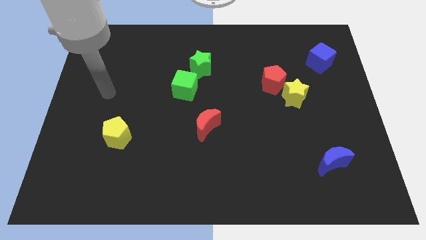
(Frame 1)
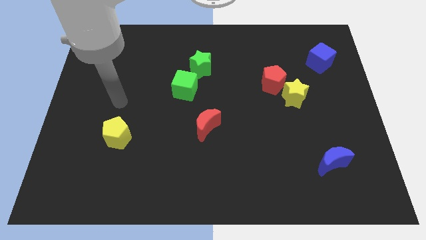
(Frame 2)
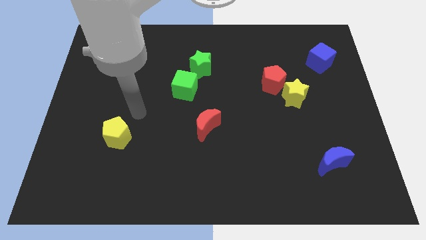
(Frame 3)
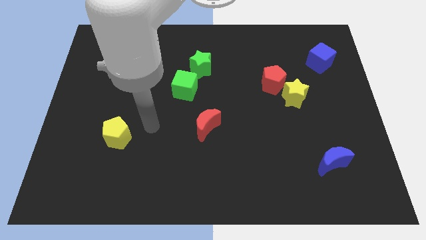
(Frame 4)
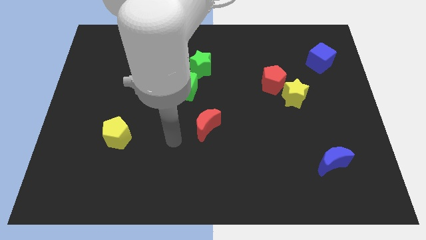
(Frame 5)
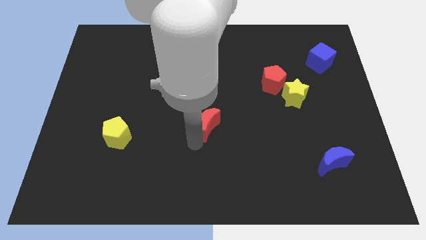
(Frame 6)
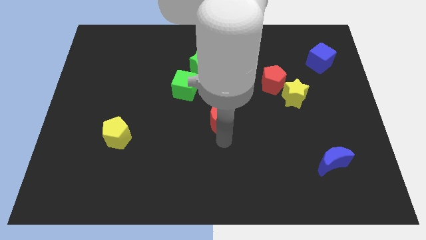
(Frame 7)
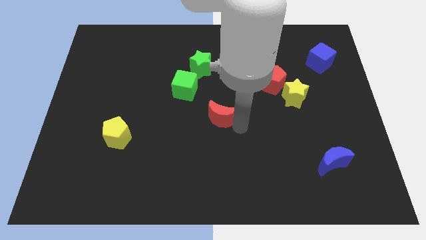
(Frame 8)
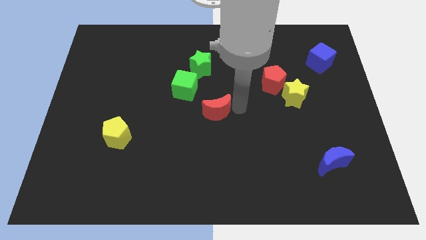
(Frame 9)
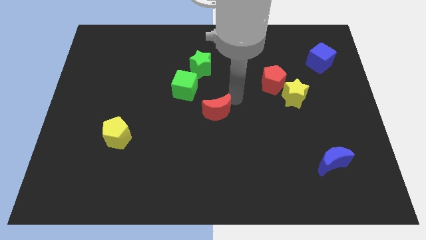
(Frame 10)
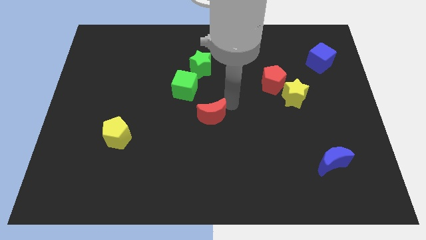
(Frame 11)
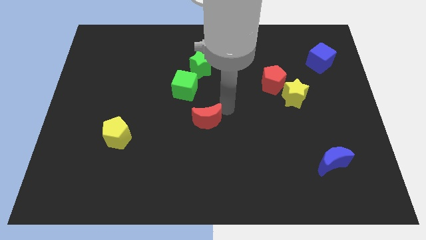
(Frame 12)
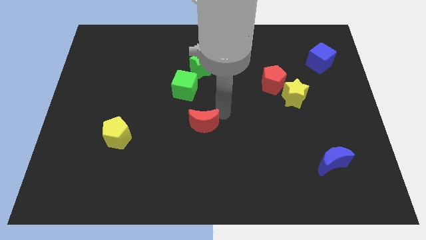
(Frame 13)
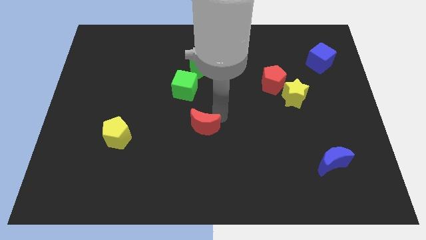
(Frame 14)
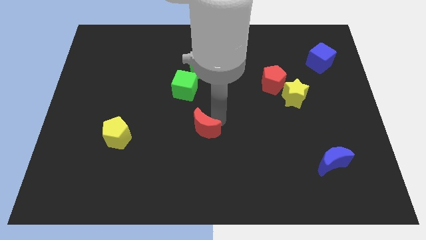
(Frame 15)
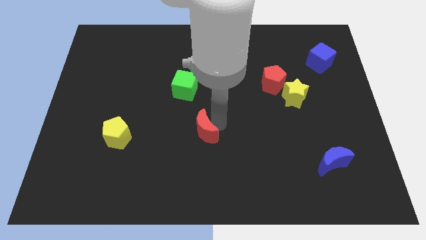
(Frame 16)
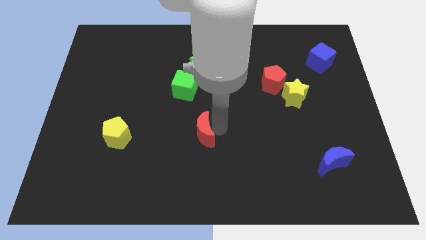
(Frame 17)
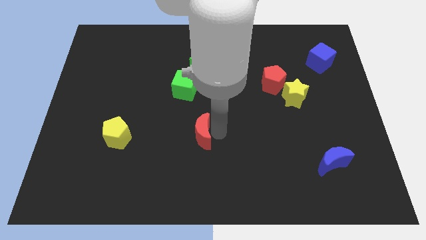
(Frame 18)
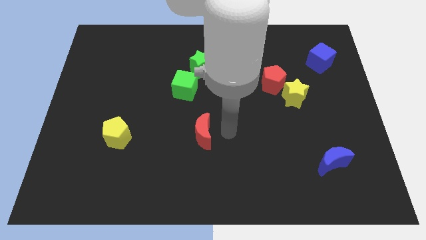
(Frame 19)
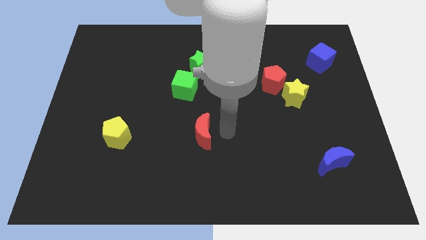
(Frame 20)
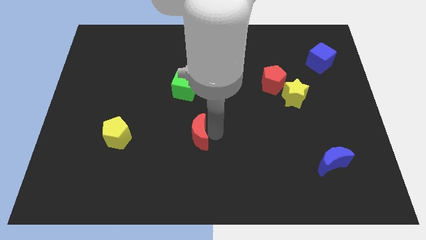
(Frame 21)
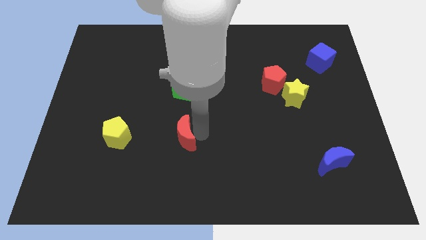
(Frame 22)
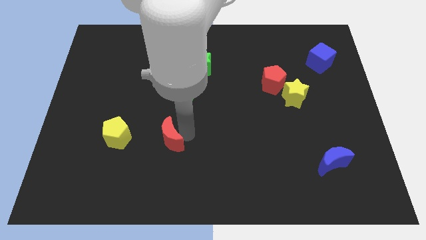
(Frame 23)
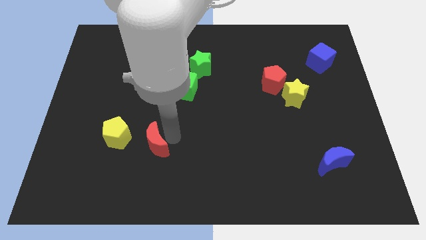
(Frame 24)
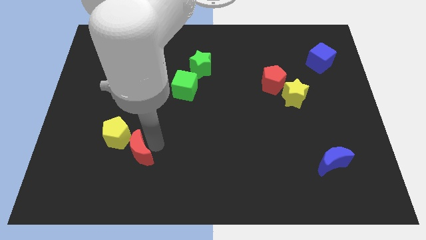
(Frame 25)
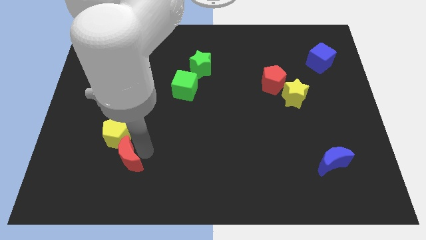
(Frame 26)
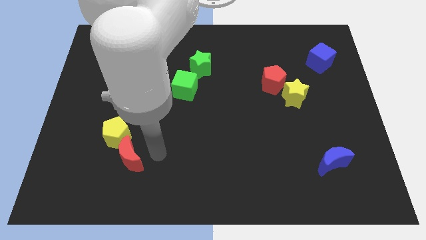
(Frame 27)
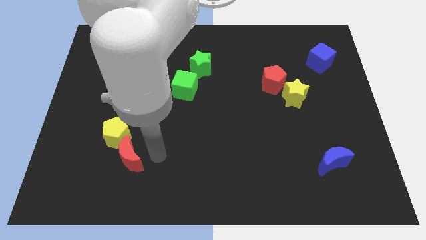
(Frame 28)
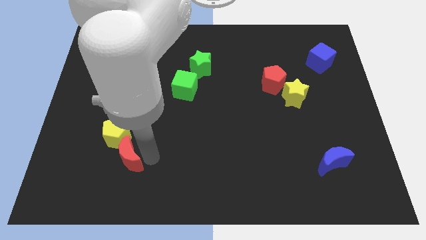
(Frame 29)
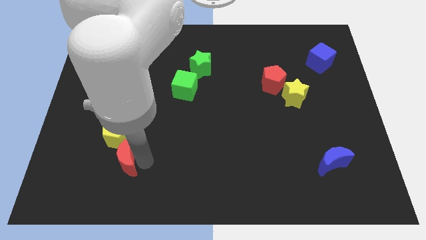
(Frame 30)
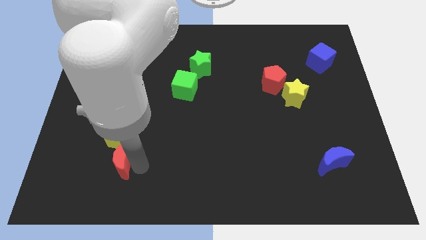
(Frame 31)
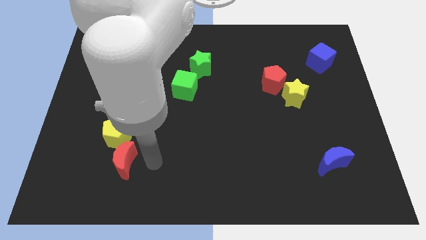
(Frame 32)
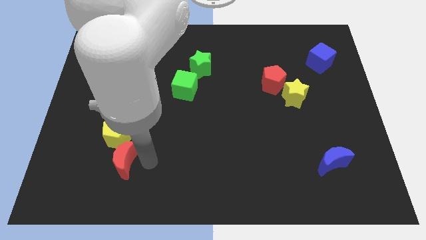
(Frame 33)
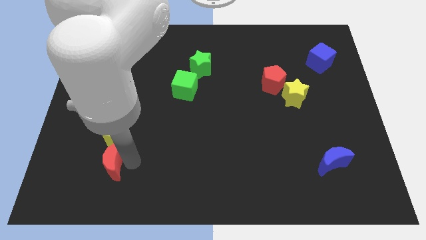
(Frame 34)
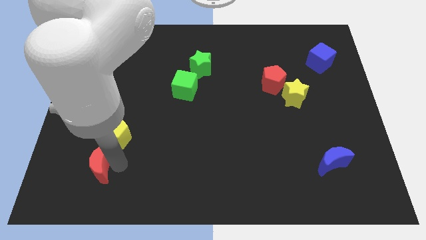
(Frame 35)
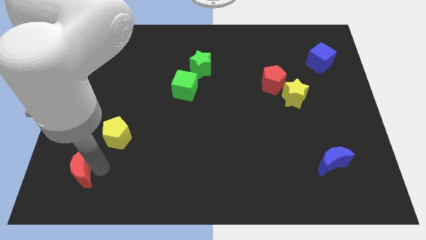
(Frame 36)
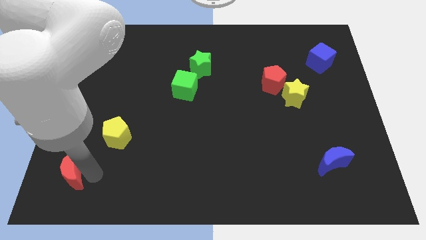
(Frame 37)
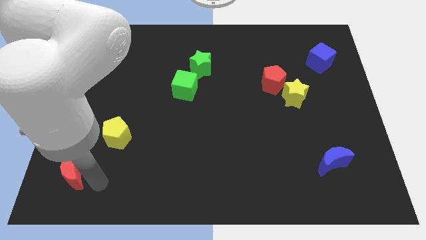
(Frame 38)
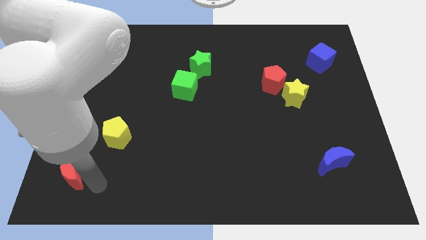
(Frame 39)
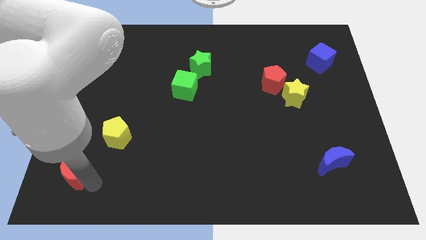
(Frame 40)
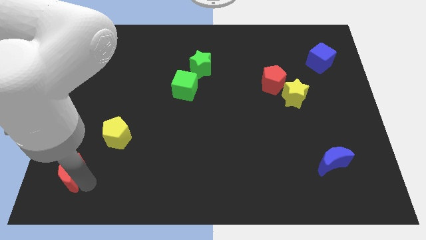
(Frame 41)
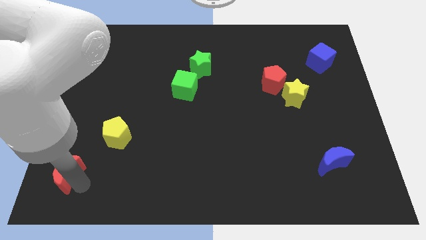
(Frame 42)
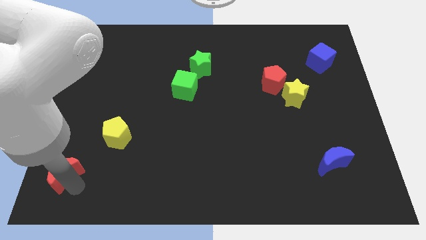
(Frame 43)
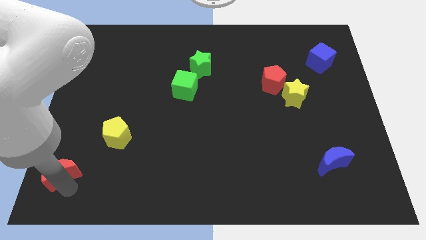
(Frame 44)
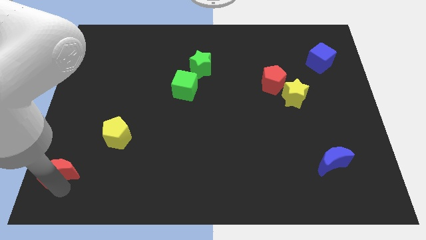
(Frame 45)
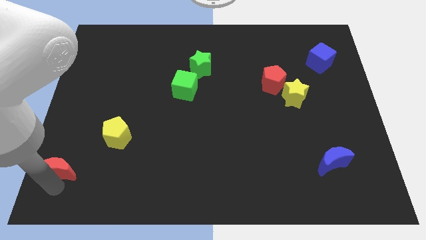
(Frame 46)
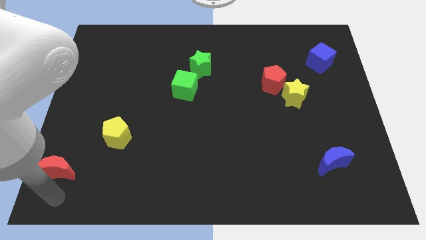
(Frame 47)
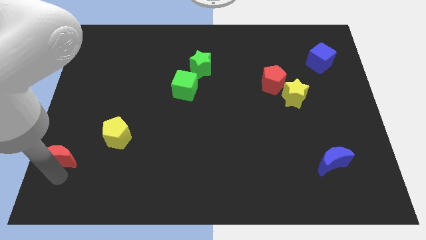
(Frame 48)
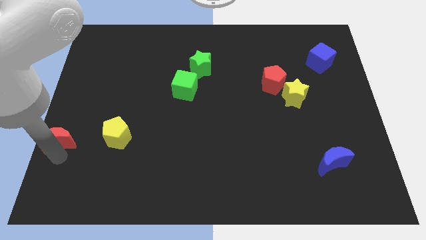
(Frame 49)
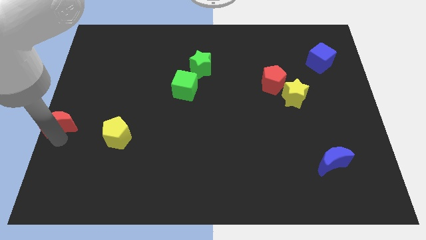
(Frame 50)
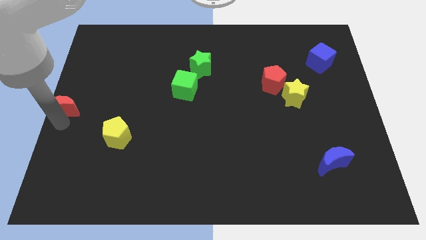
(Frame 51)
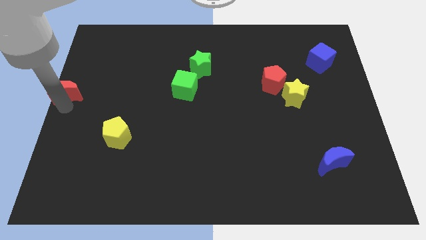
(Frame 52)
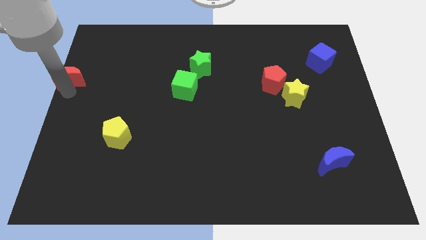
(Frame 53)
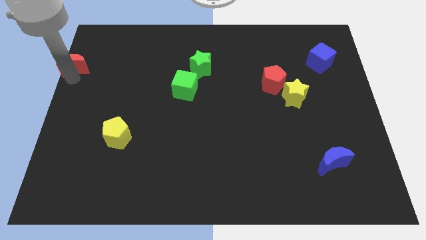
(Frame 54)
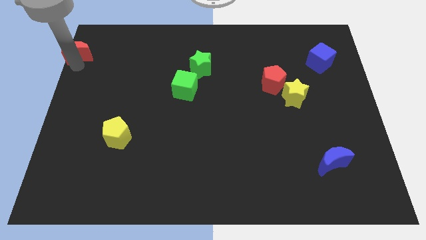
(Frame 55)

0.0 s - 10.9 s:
slide the red moon to the top left corner

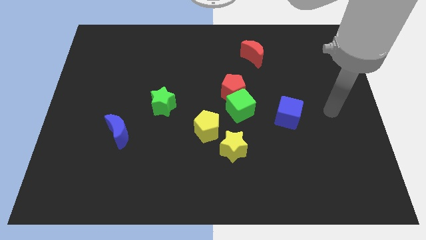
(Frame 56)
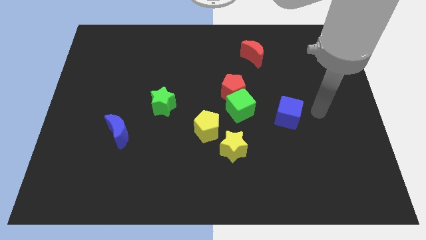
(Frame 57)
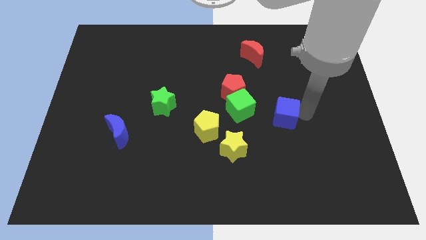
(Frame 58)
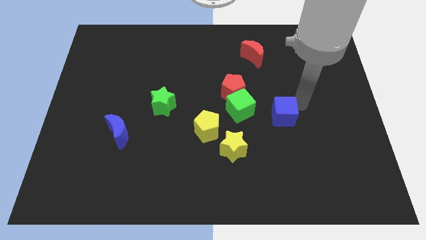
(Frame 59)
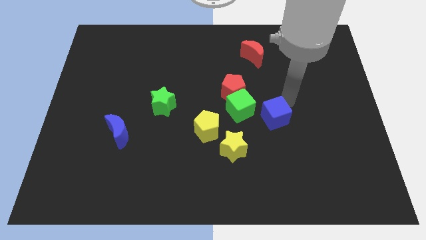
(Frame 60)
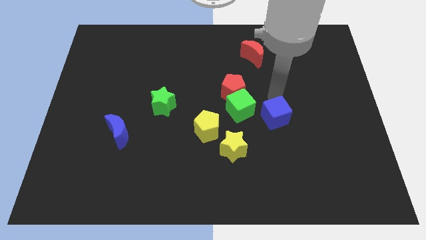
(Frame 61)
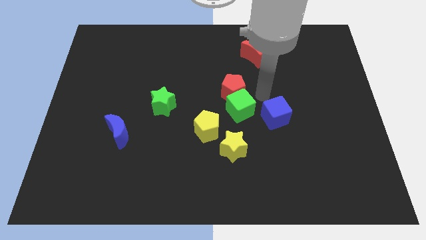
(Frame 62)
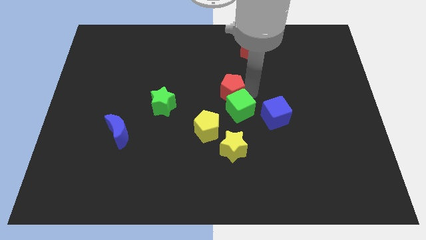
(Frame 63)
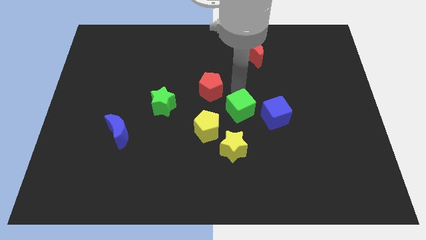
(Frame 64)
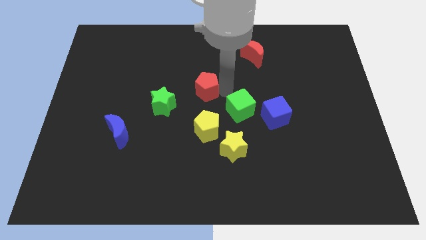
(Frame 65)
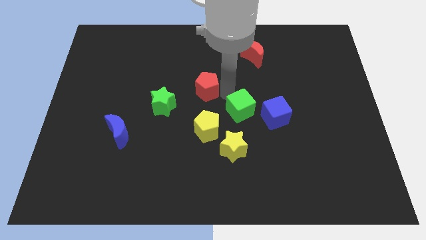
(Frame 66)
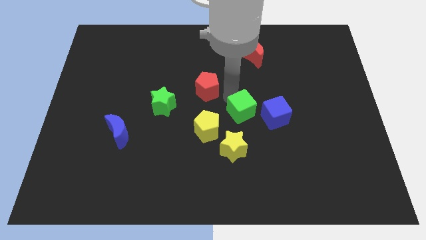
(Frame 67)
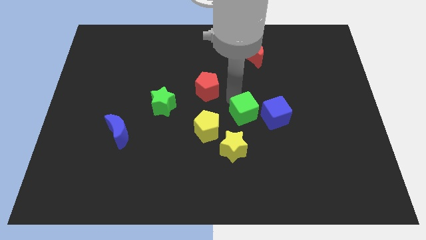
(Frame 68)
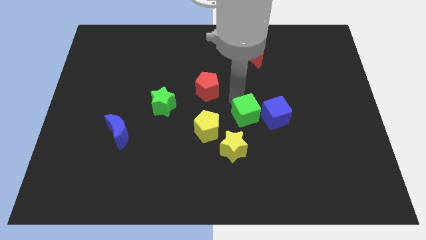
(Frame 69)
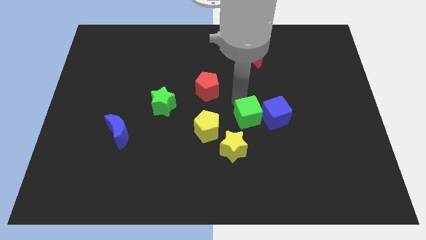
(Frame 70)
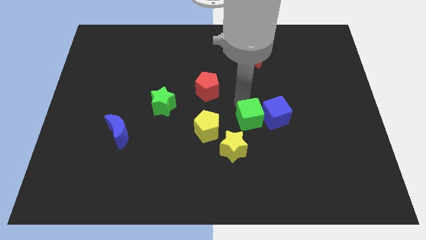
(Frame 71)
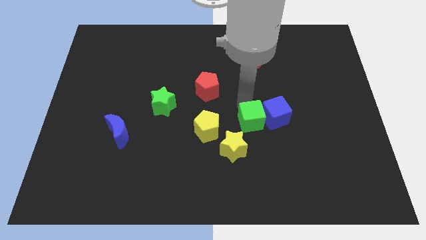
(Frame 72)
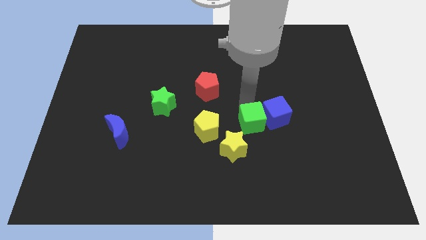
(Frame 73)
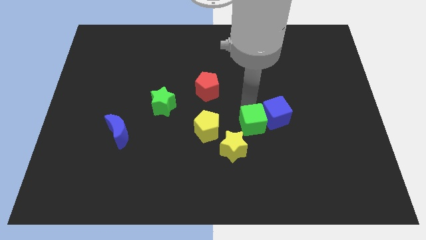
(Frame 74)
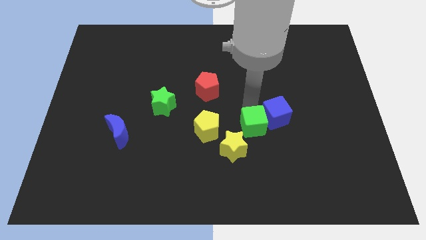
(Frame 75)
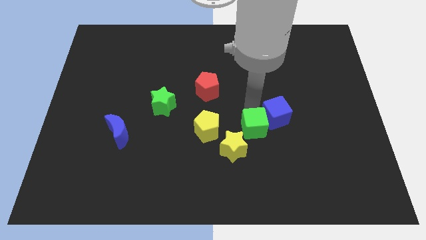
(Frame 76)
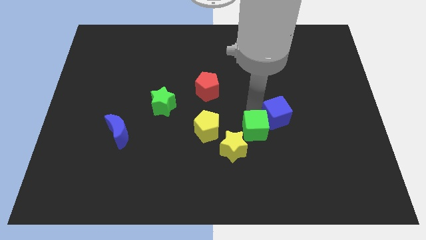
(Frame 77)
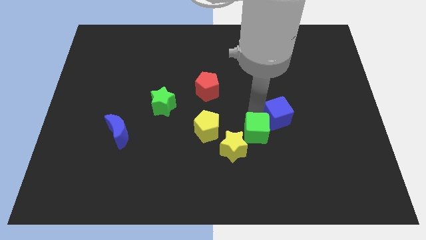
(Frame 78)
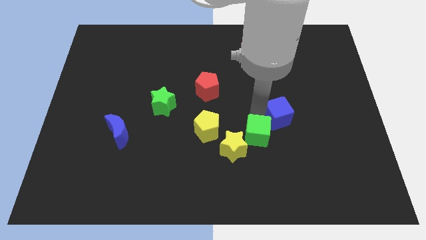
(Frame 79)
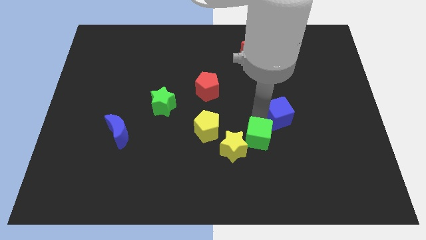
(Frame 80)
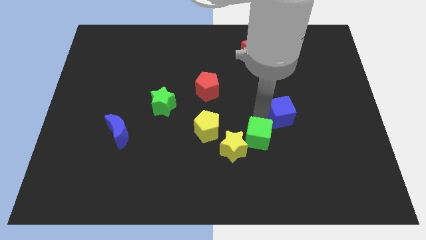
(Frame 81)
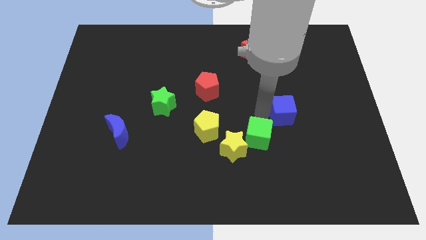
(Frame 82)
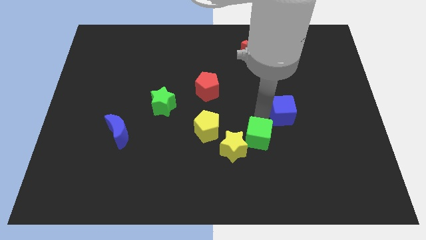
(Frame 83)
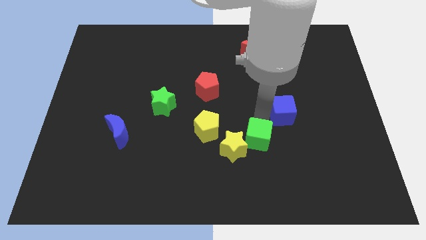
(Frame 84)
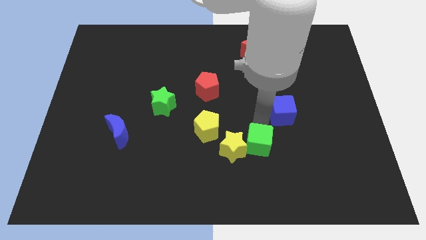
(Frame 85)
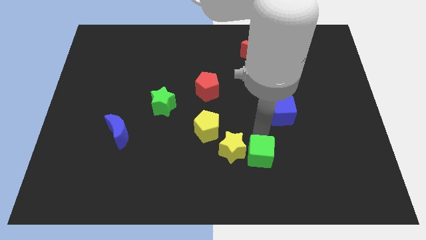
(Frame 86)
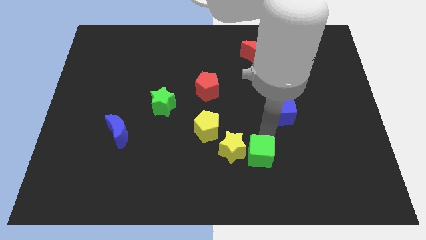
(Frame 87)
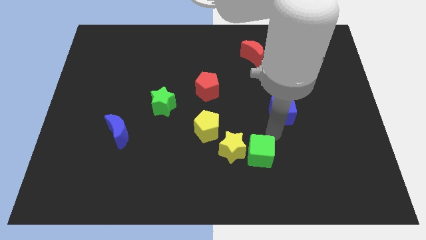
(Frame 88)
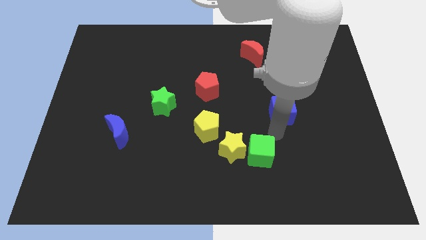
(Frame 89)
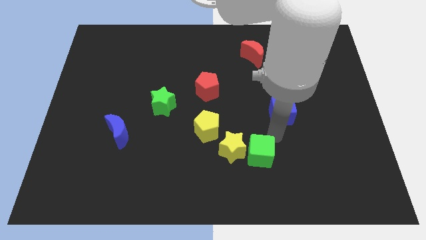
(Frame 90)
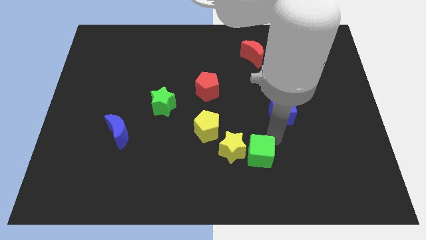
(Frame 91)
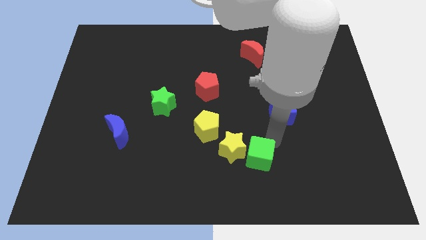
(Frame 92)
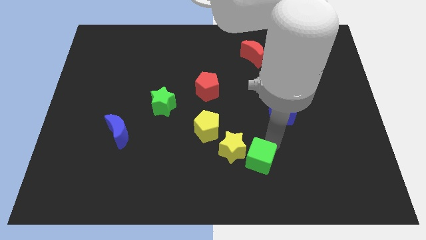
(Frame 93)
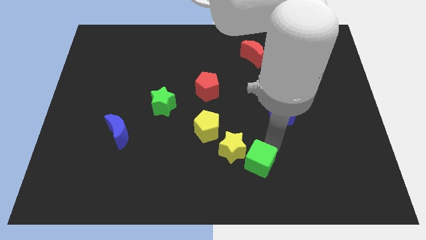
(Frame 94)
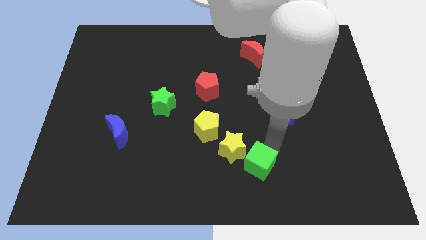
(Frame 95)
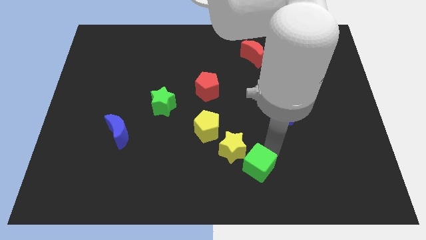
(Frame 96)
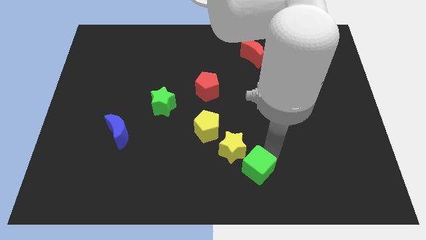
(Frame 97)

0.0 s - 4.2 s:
move the green cube to the bottom
